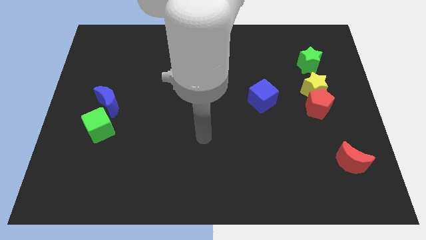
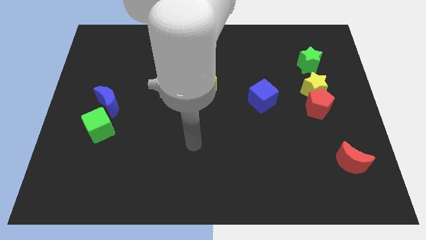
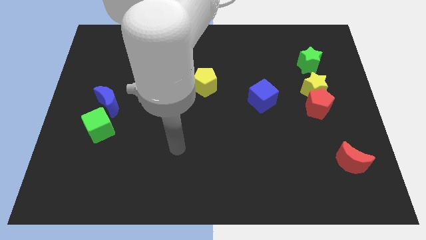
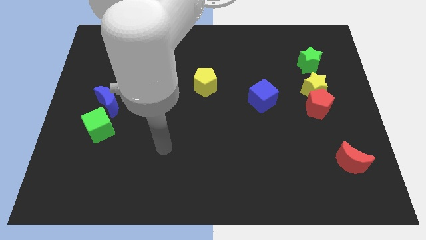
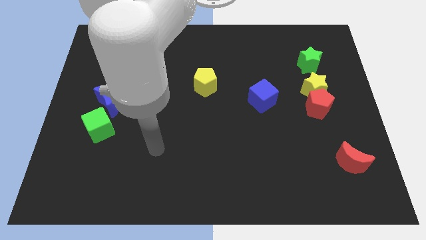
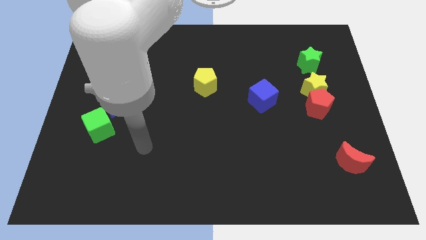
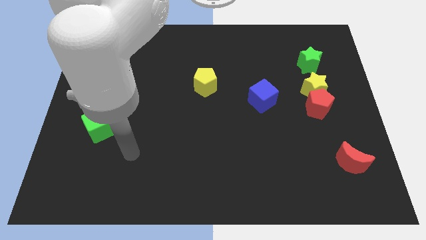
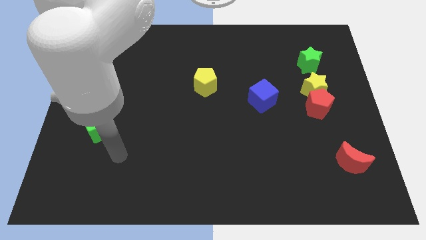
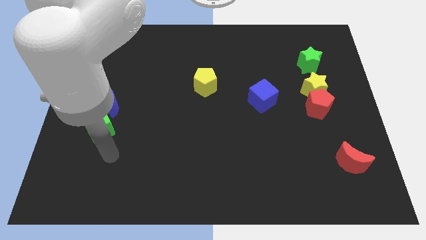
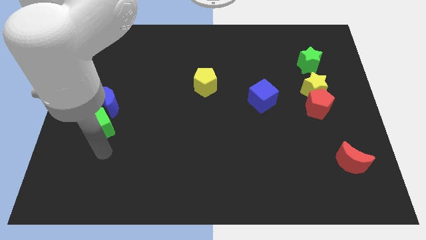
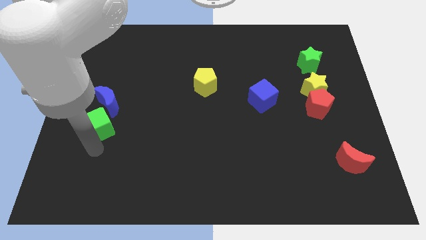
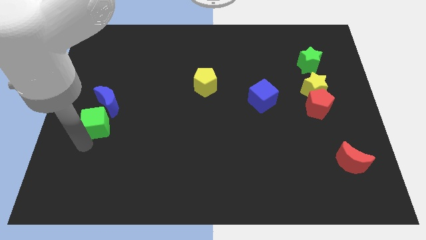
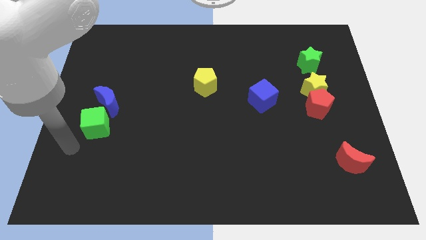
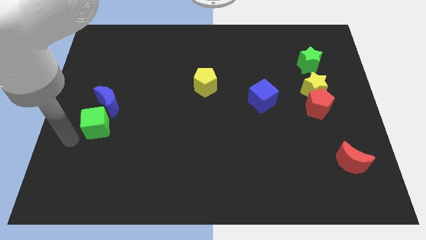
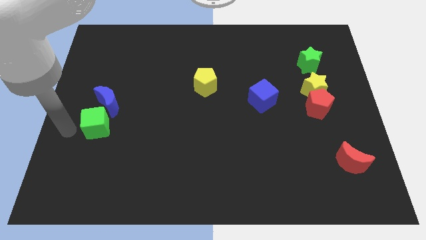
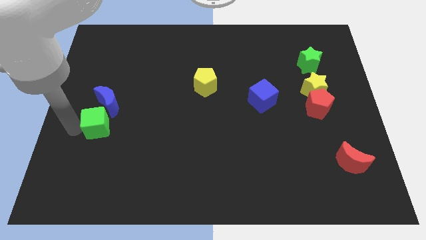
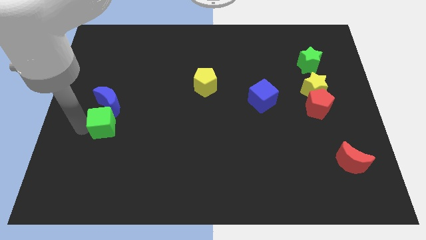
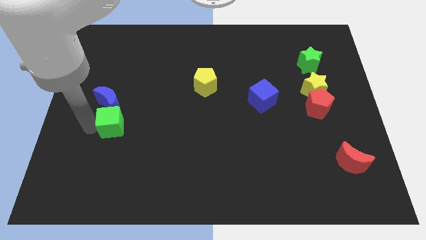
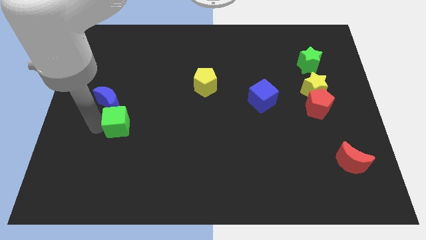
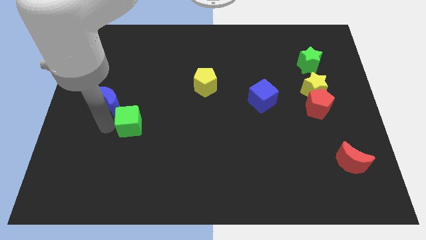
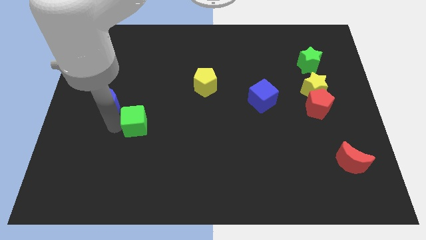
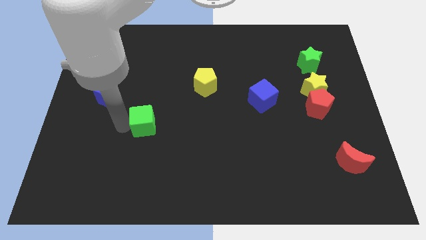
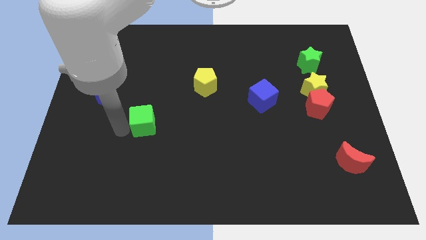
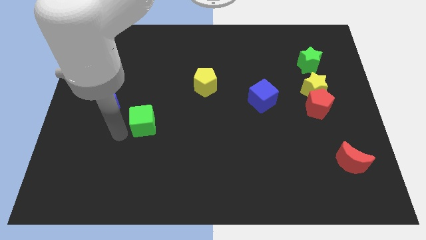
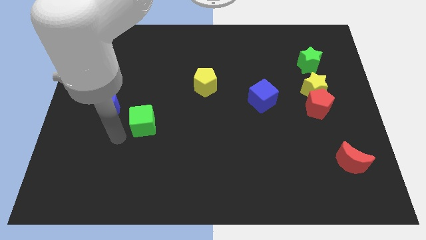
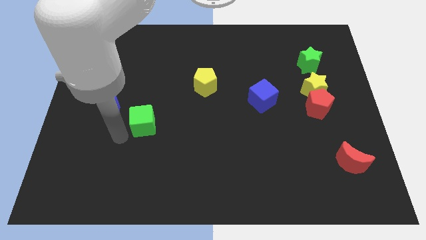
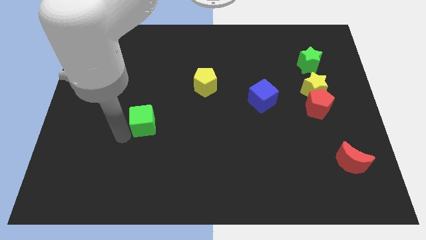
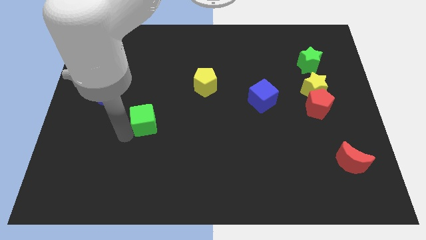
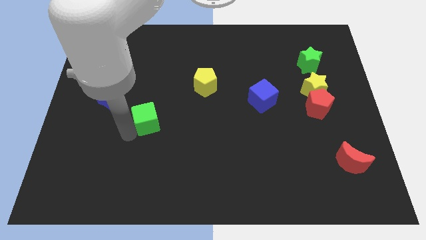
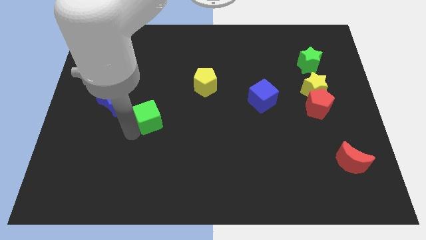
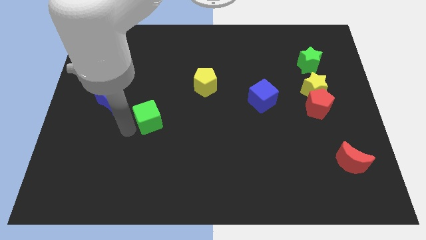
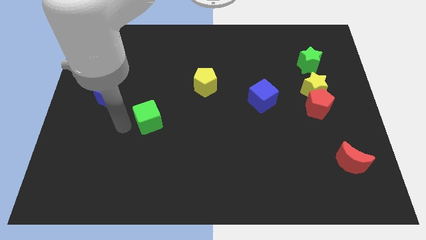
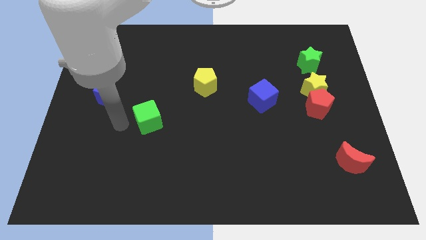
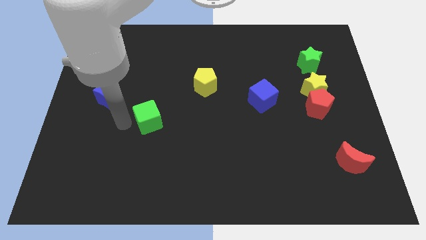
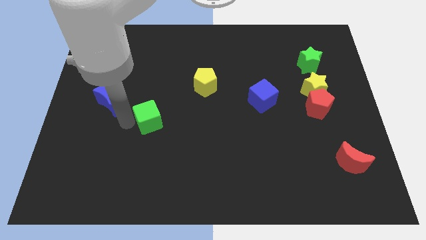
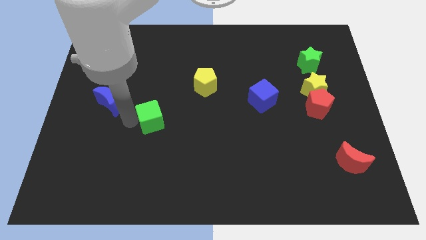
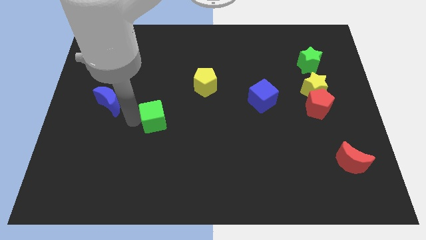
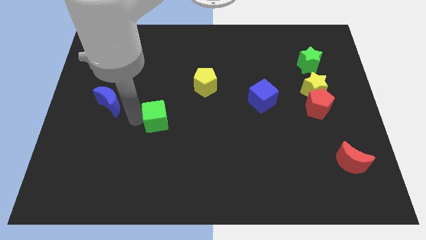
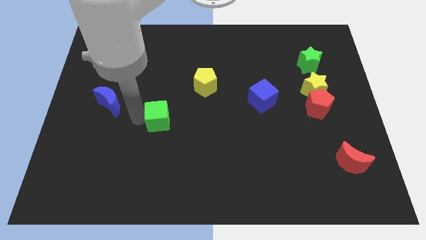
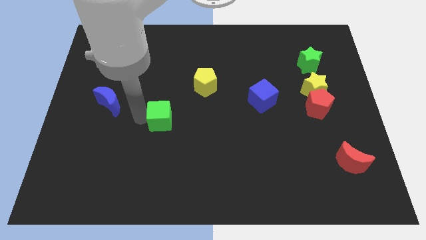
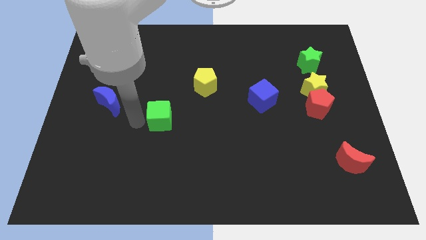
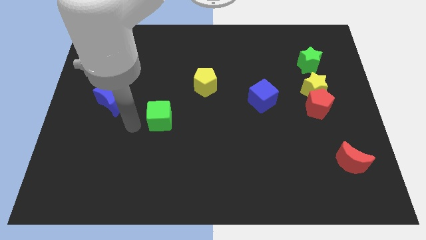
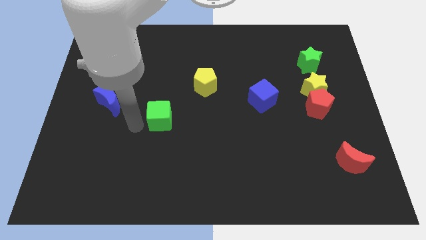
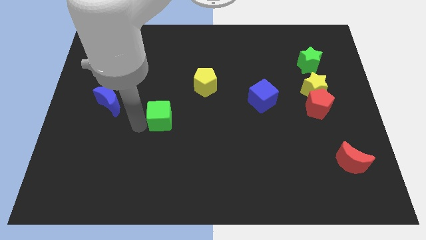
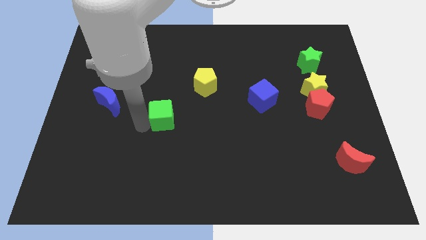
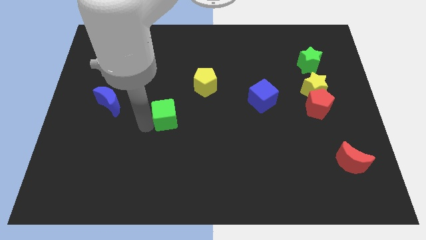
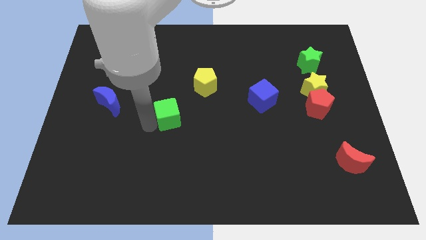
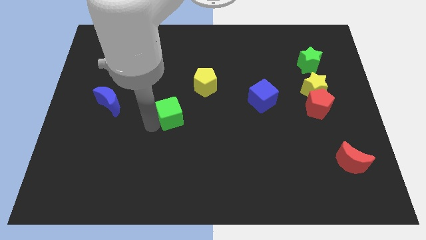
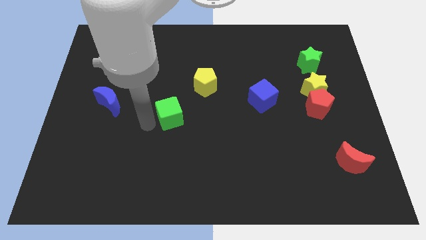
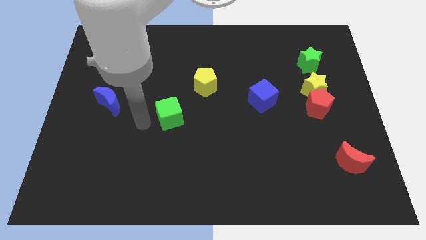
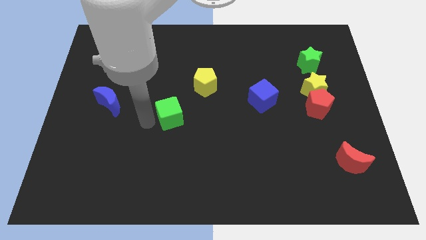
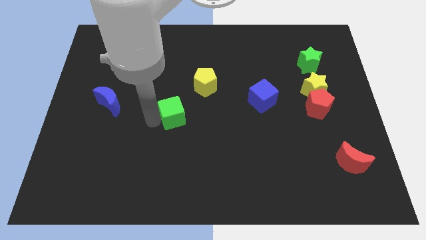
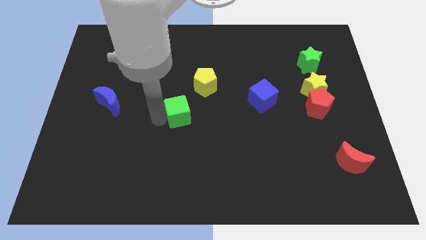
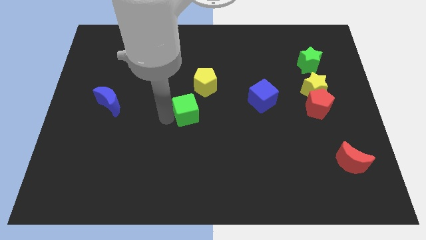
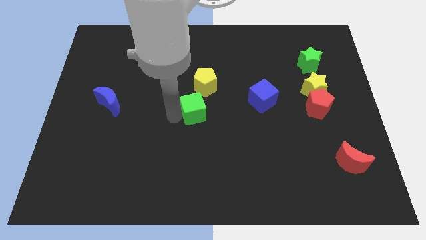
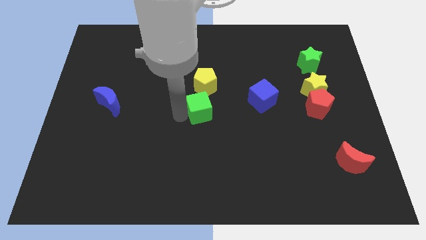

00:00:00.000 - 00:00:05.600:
push the green cube to the left side of the blue cube

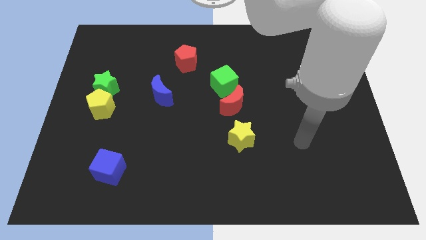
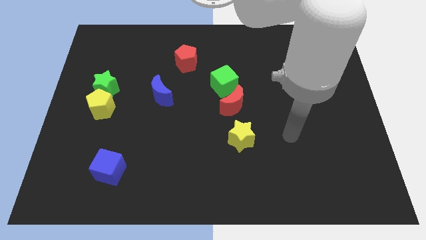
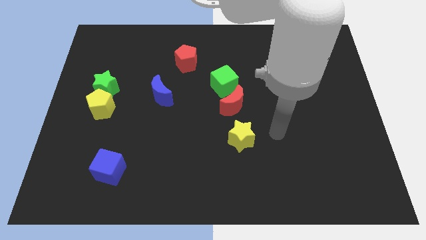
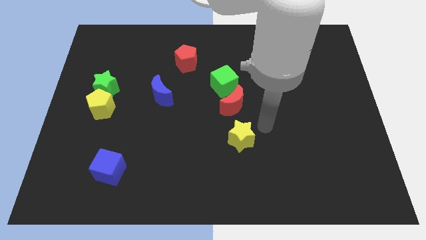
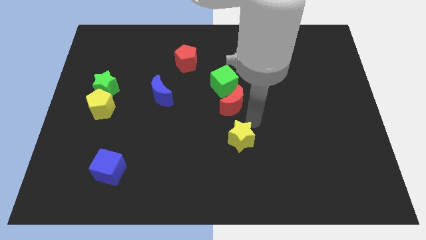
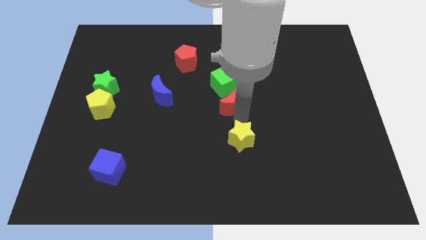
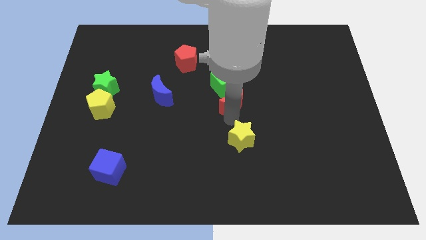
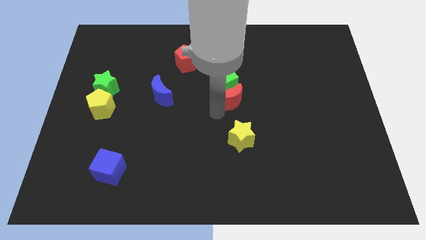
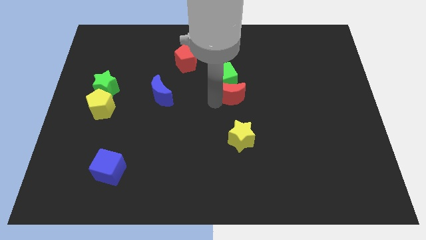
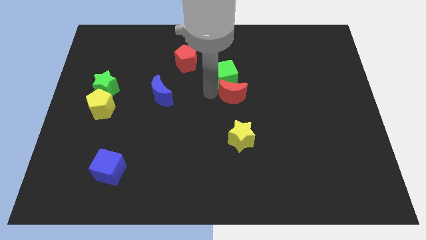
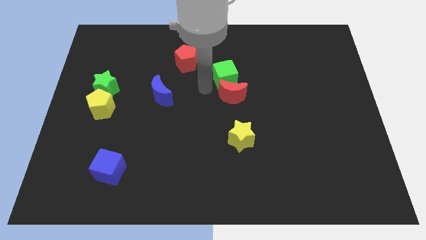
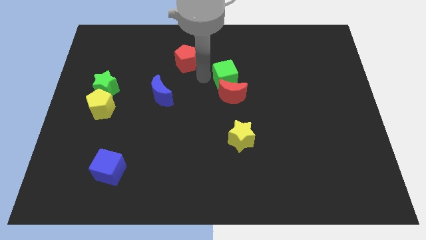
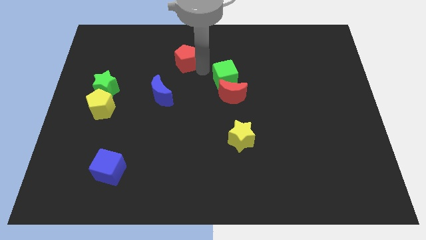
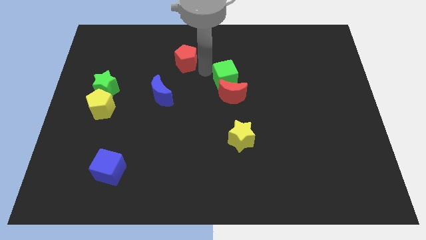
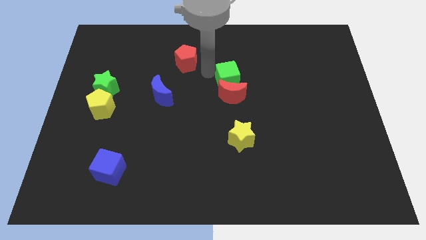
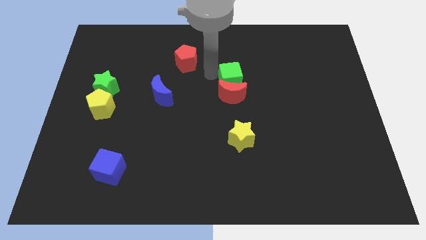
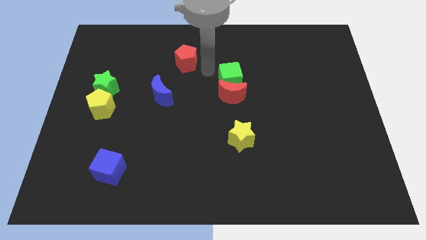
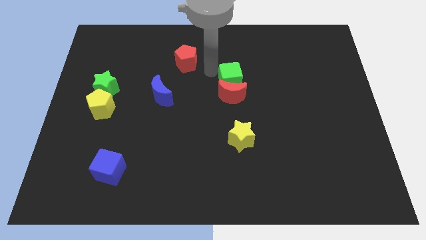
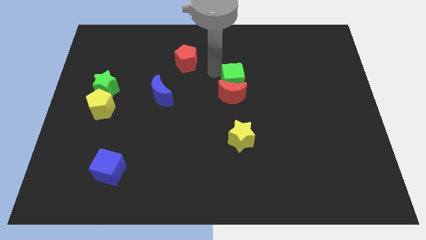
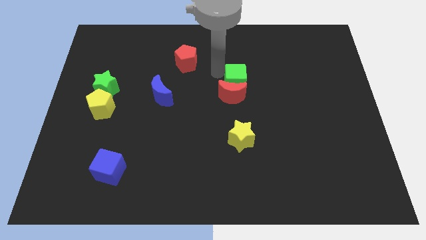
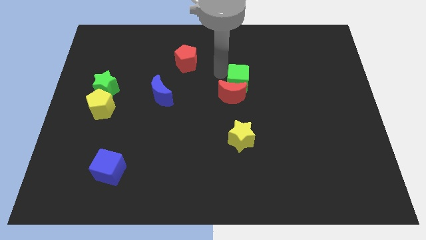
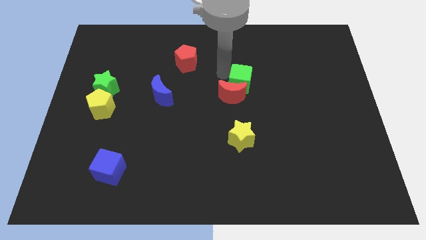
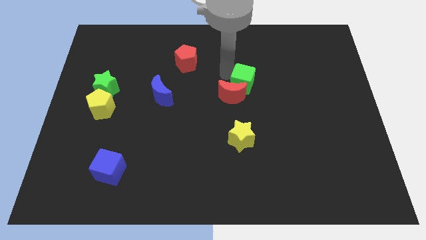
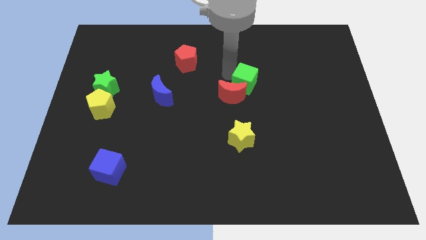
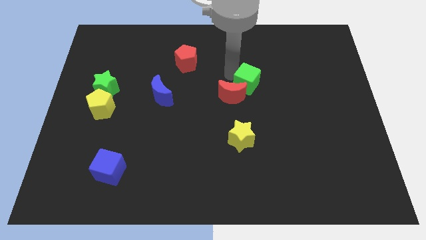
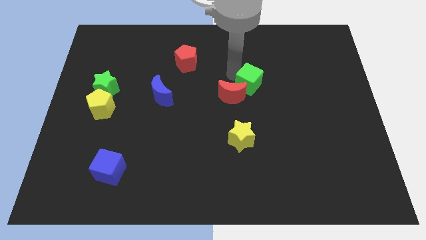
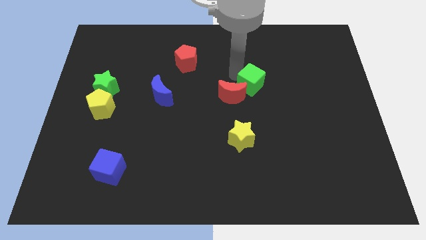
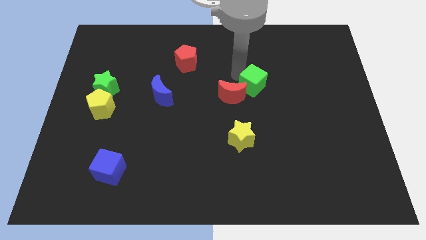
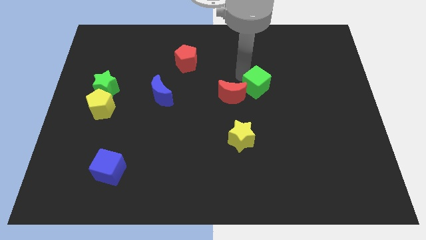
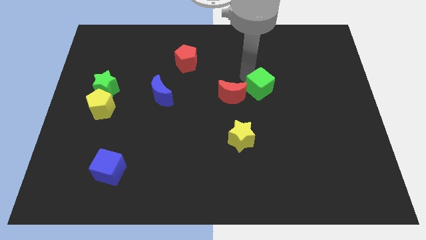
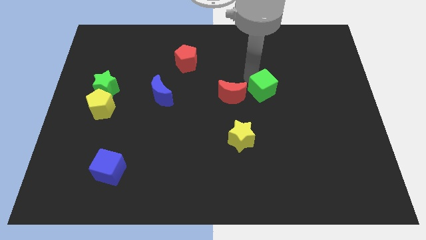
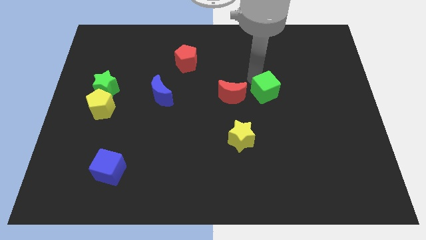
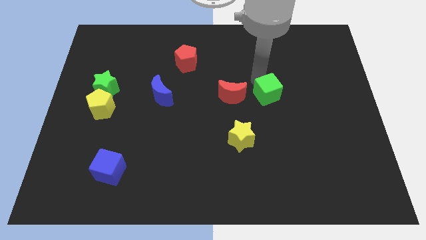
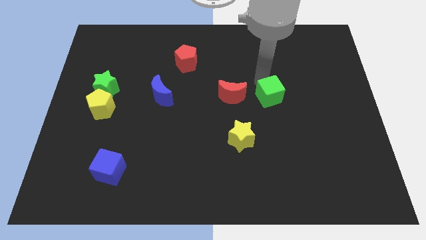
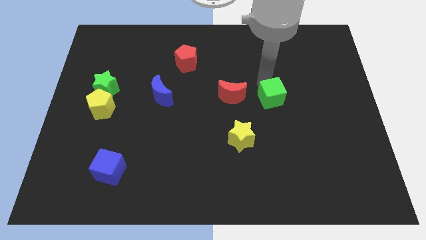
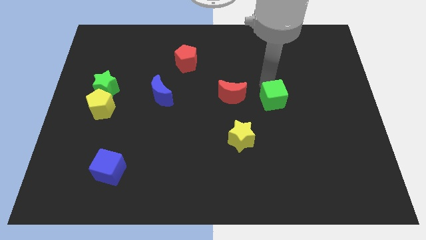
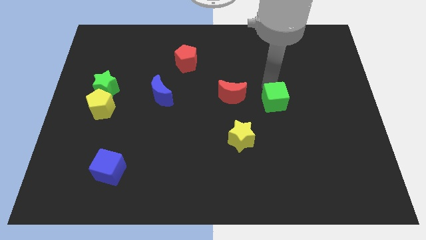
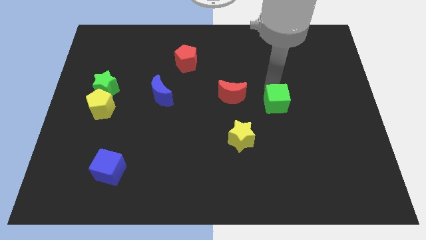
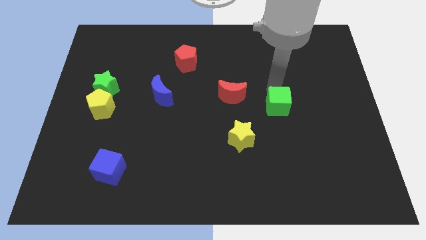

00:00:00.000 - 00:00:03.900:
push the green cube to the top right of the yellow star
